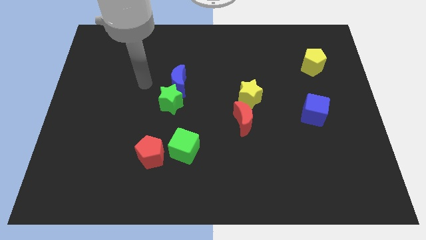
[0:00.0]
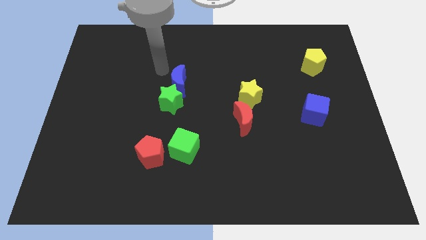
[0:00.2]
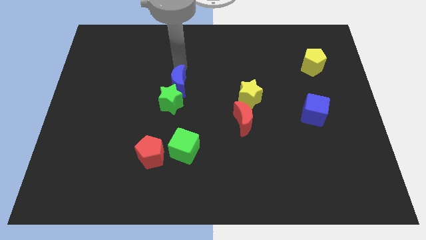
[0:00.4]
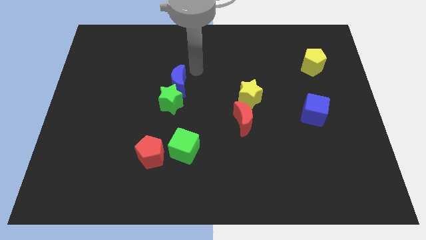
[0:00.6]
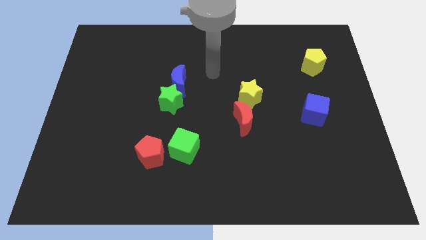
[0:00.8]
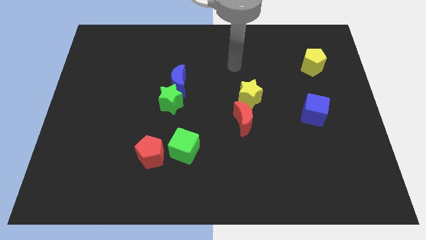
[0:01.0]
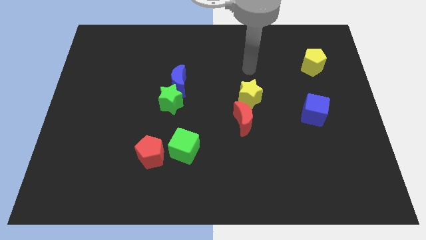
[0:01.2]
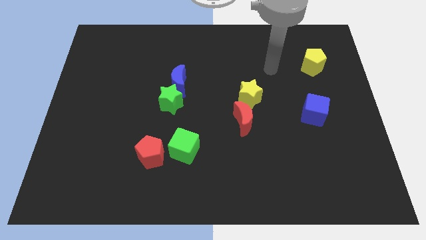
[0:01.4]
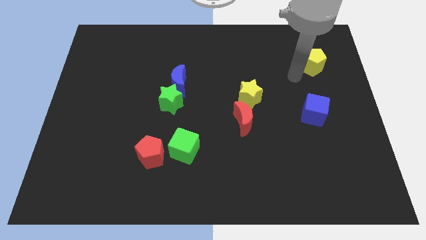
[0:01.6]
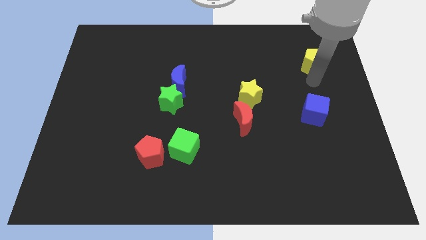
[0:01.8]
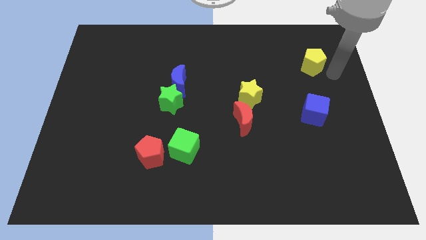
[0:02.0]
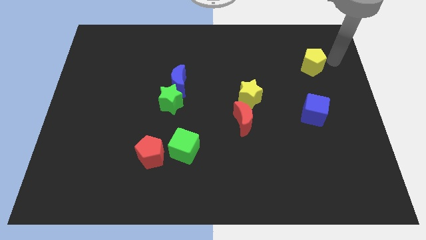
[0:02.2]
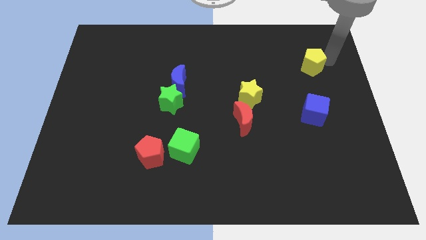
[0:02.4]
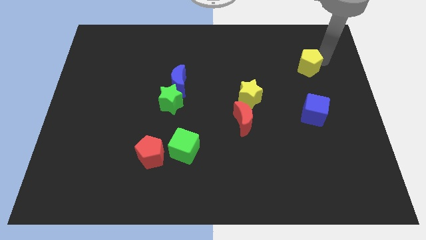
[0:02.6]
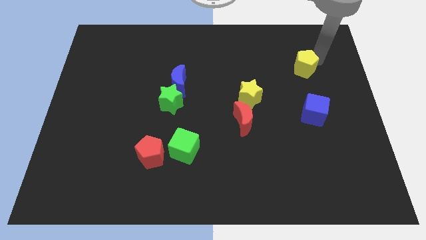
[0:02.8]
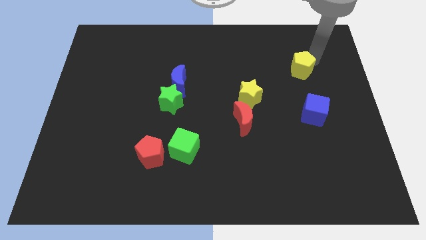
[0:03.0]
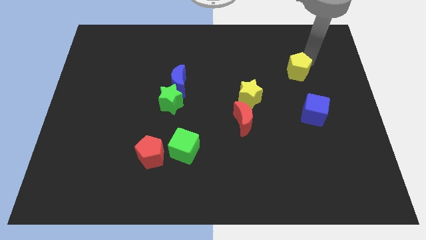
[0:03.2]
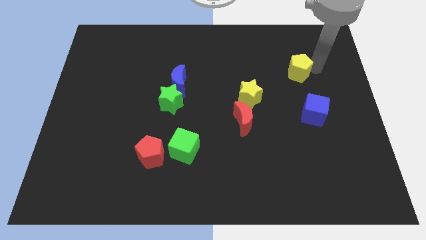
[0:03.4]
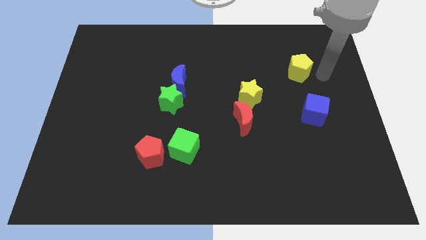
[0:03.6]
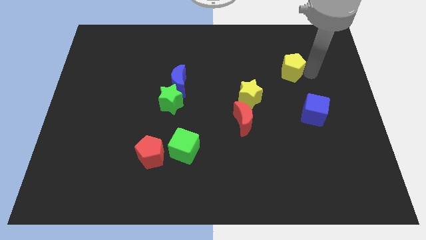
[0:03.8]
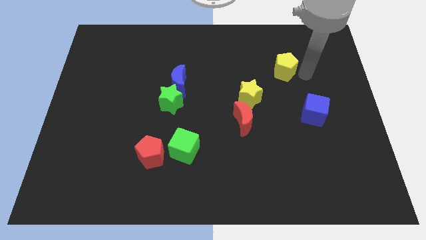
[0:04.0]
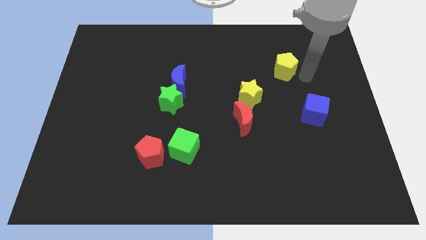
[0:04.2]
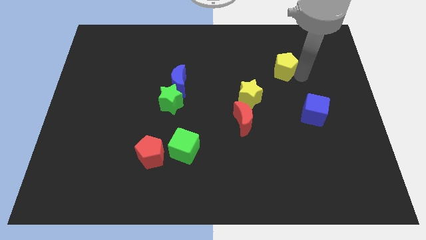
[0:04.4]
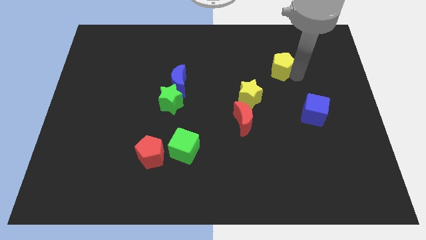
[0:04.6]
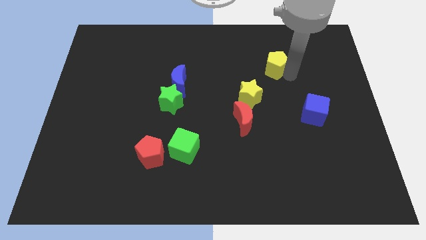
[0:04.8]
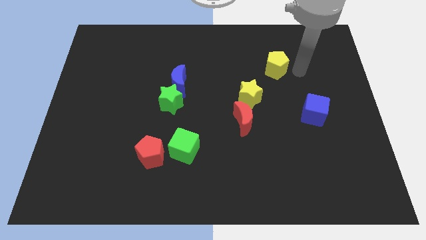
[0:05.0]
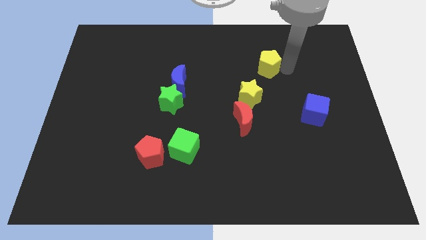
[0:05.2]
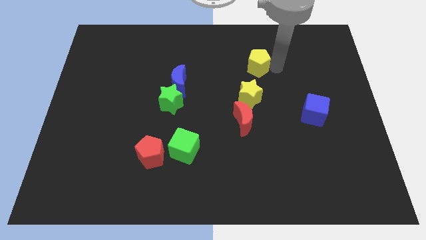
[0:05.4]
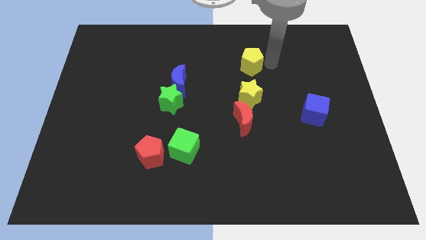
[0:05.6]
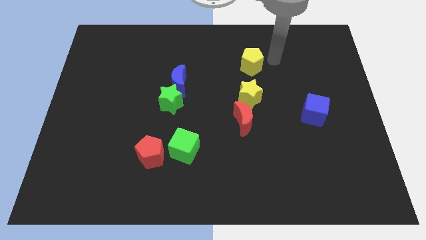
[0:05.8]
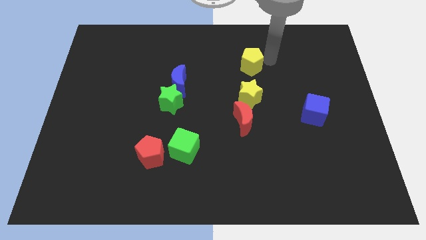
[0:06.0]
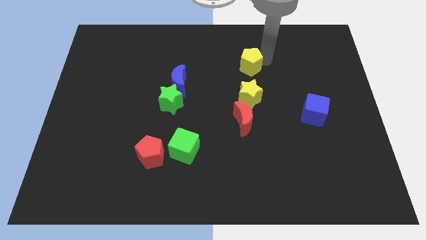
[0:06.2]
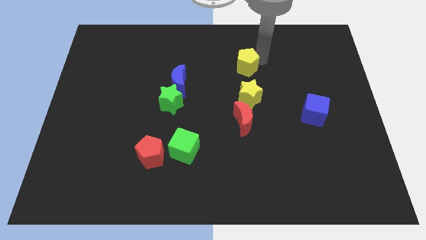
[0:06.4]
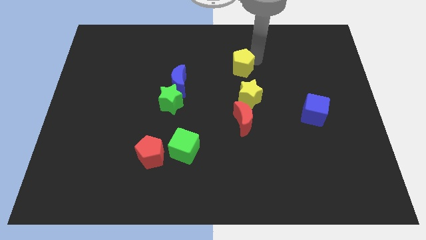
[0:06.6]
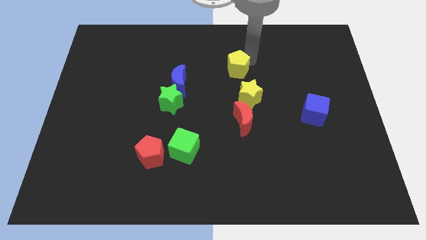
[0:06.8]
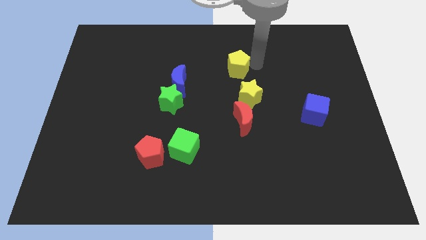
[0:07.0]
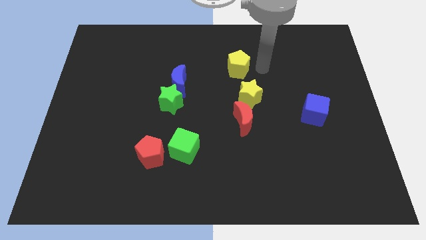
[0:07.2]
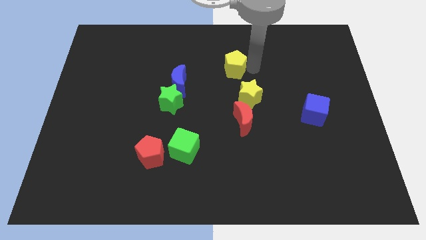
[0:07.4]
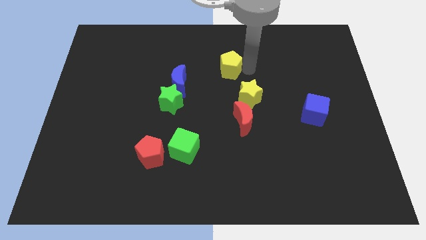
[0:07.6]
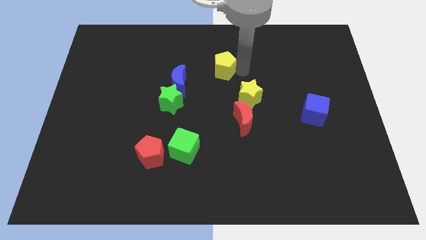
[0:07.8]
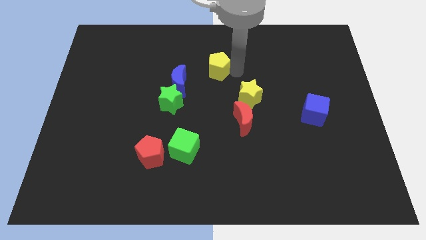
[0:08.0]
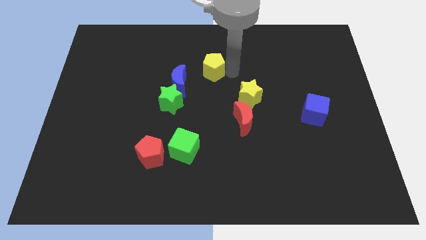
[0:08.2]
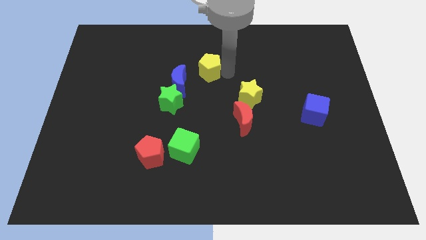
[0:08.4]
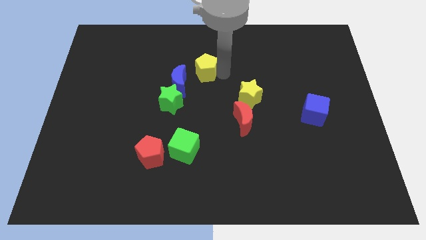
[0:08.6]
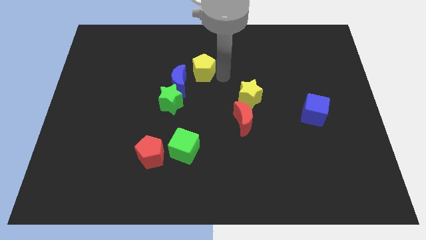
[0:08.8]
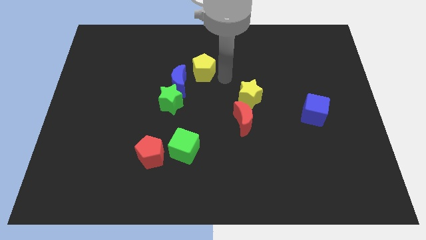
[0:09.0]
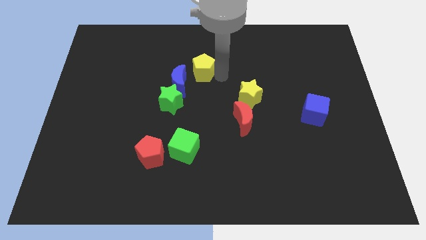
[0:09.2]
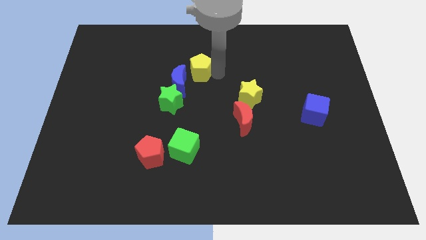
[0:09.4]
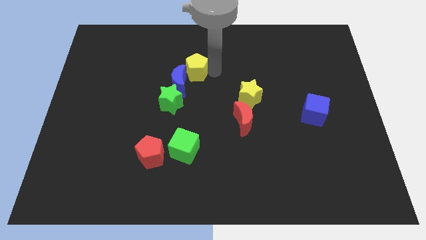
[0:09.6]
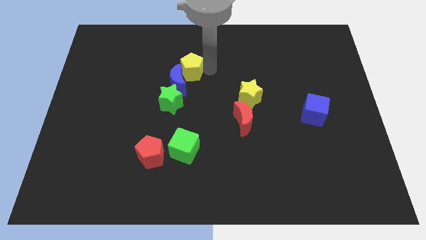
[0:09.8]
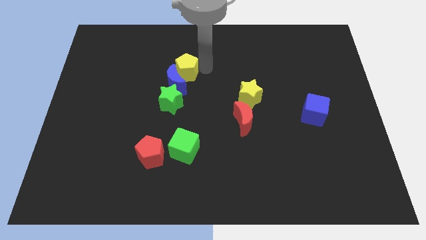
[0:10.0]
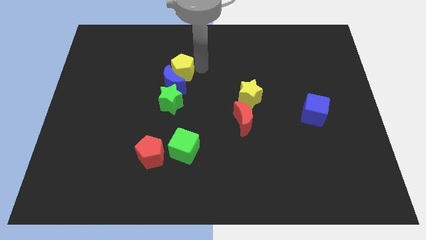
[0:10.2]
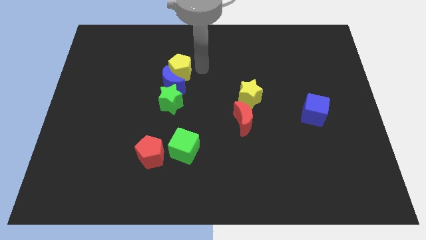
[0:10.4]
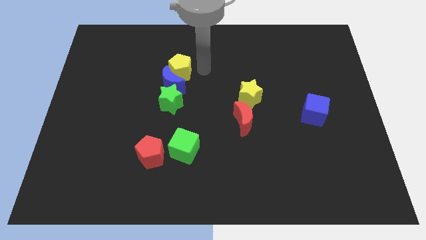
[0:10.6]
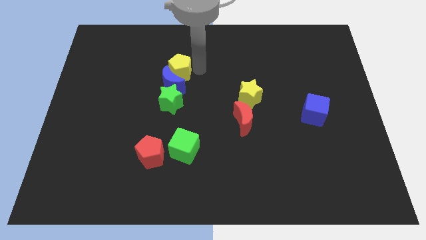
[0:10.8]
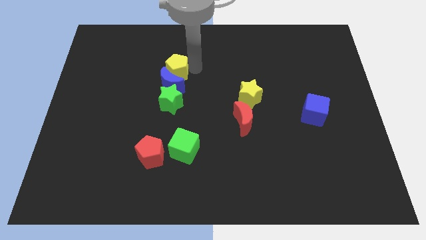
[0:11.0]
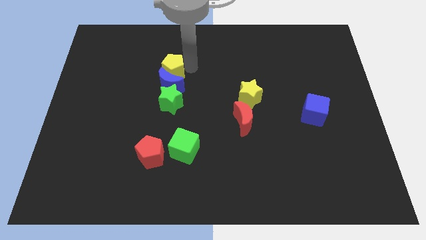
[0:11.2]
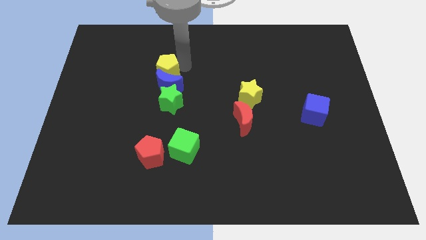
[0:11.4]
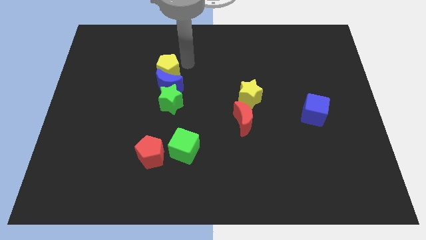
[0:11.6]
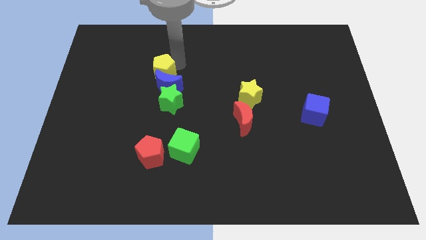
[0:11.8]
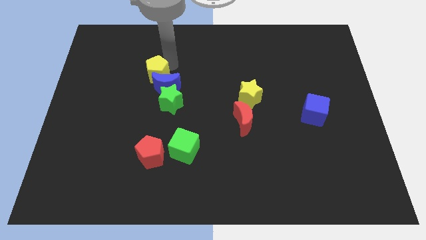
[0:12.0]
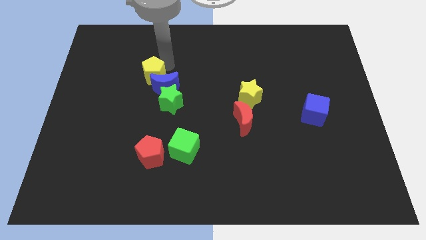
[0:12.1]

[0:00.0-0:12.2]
slide the yellow pentagon to the left of the blue moon

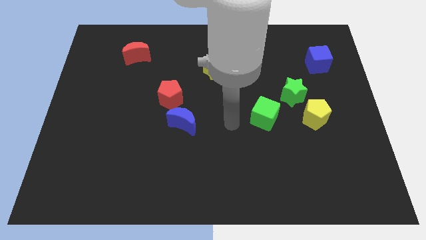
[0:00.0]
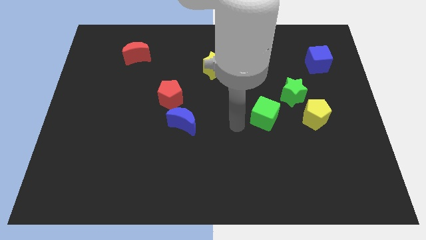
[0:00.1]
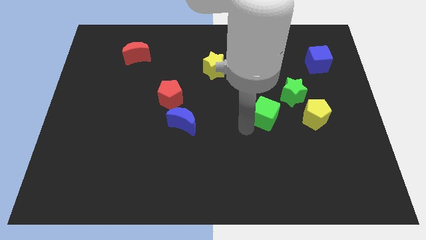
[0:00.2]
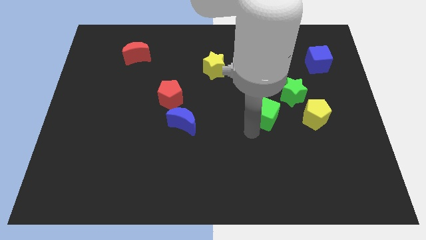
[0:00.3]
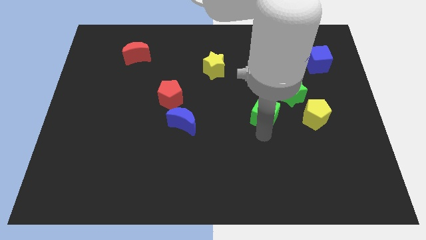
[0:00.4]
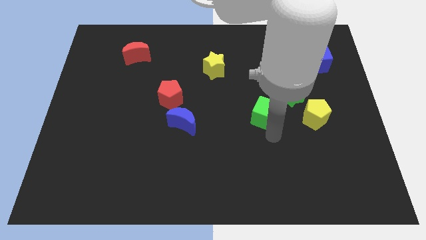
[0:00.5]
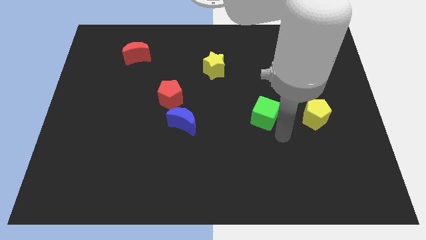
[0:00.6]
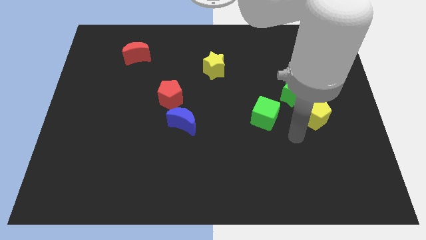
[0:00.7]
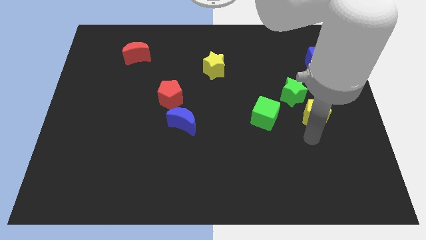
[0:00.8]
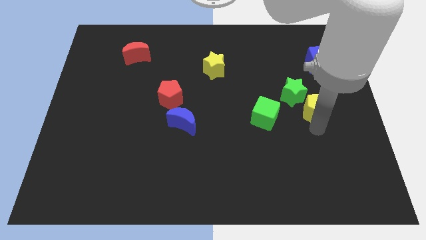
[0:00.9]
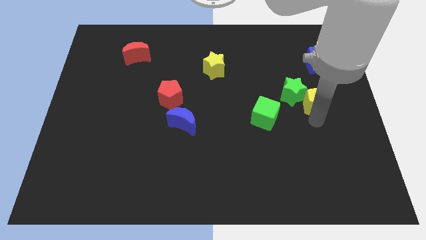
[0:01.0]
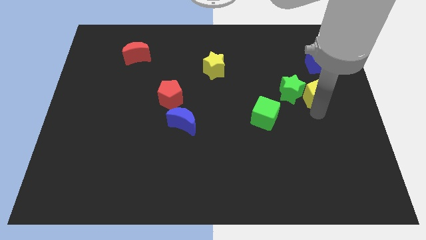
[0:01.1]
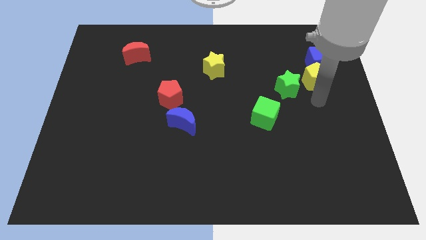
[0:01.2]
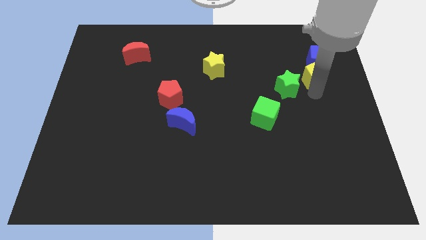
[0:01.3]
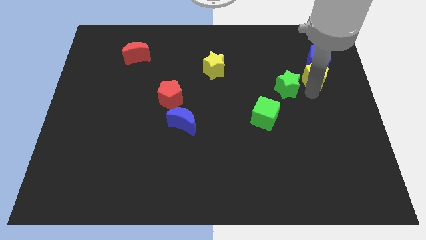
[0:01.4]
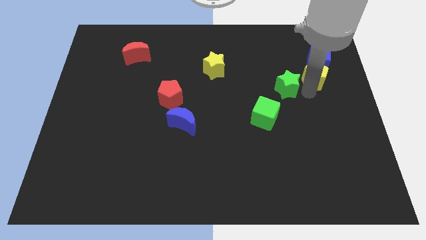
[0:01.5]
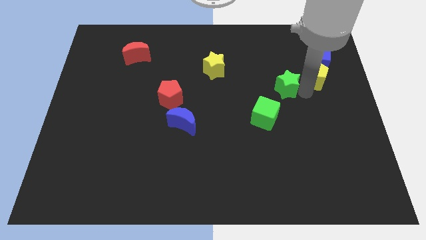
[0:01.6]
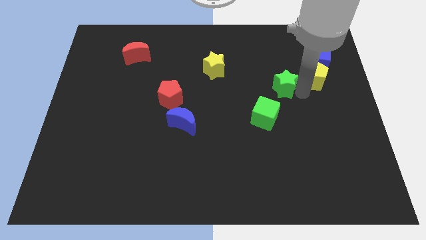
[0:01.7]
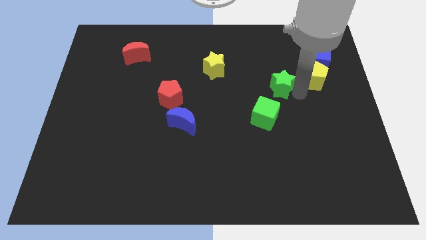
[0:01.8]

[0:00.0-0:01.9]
move the green star to the top of the green cube
